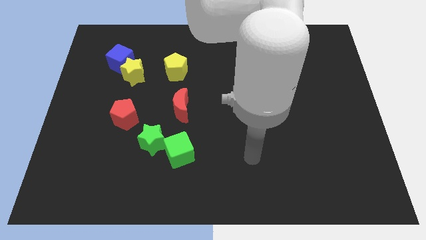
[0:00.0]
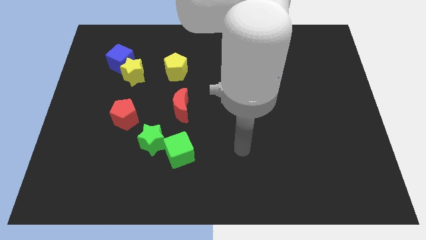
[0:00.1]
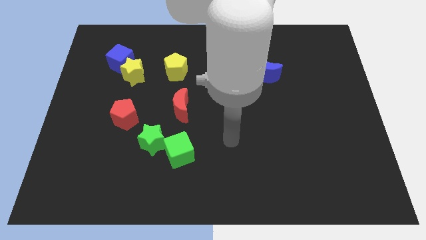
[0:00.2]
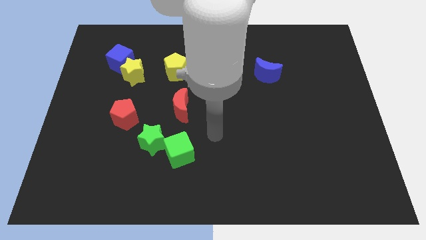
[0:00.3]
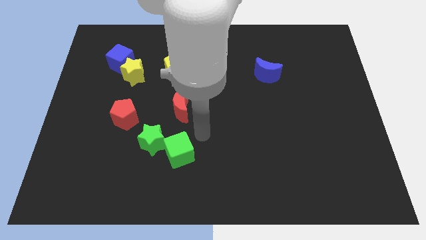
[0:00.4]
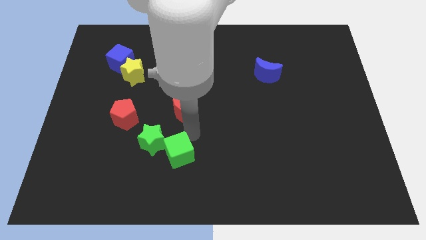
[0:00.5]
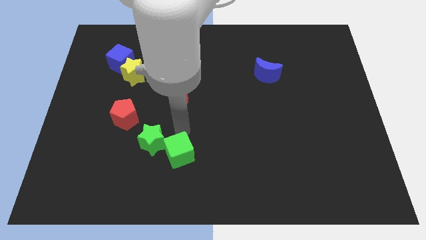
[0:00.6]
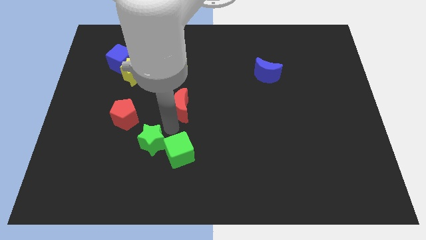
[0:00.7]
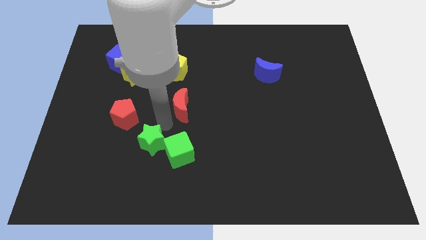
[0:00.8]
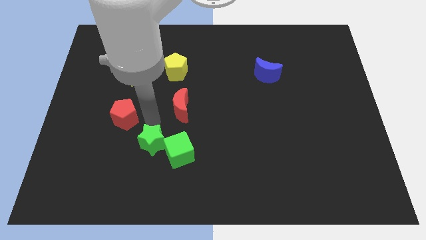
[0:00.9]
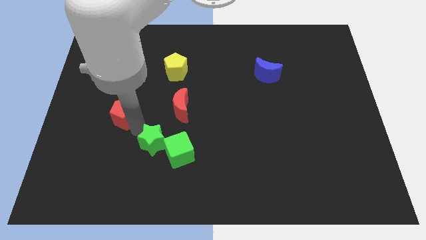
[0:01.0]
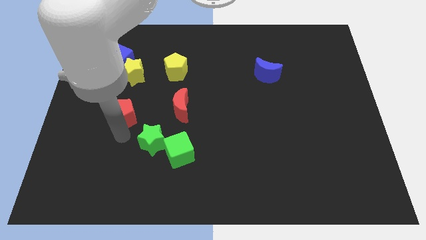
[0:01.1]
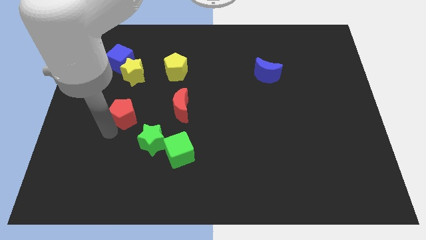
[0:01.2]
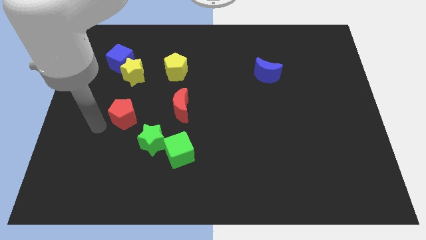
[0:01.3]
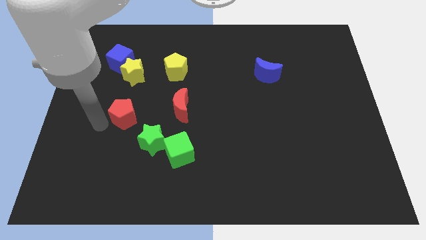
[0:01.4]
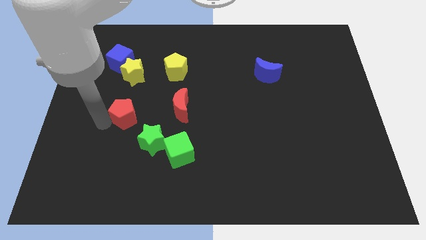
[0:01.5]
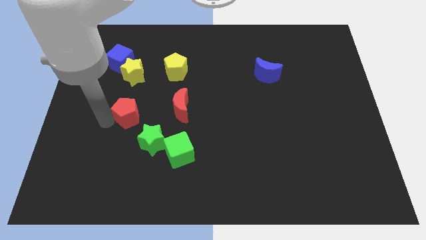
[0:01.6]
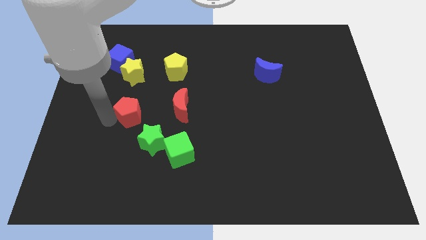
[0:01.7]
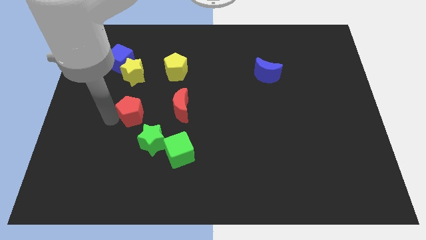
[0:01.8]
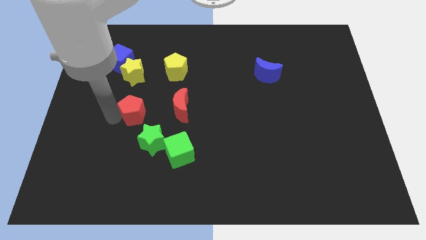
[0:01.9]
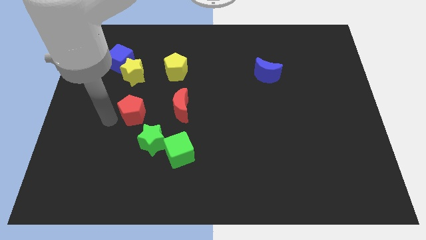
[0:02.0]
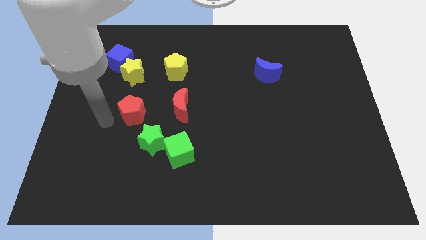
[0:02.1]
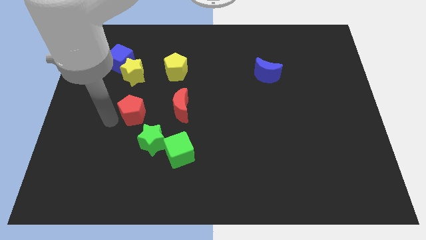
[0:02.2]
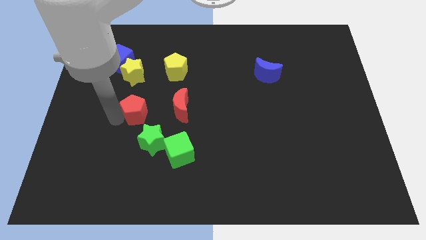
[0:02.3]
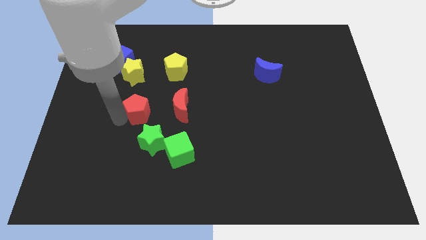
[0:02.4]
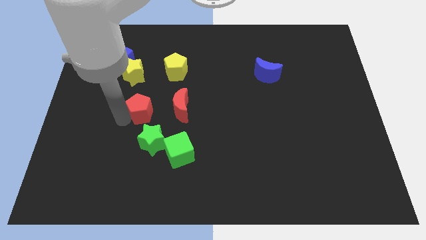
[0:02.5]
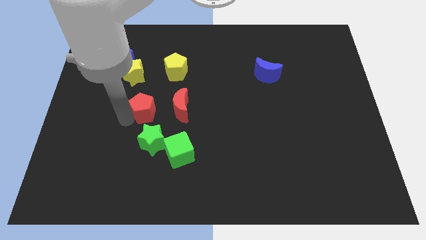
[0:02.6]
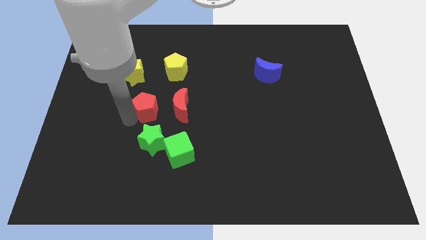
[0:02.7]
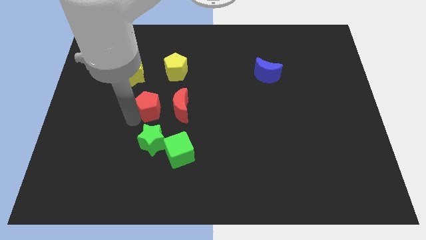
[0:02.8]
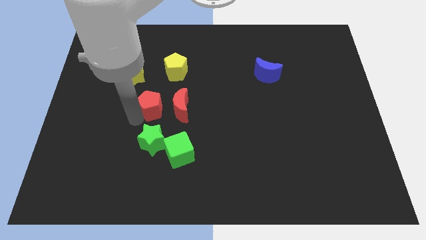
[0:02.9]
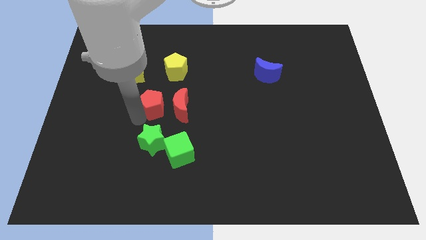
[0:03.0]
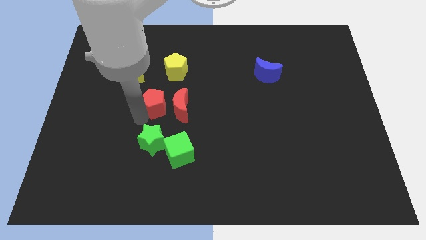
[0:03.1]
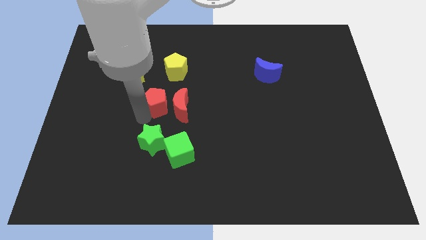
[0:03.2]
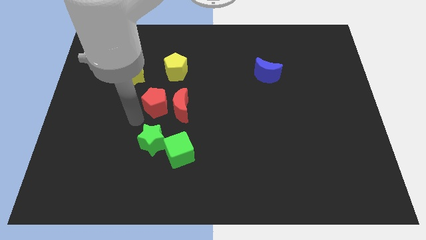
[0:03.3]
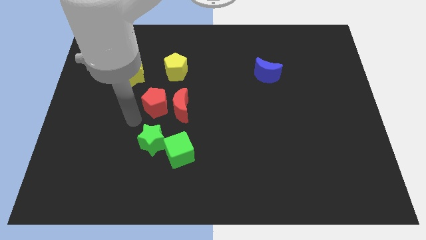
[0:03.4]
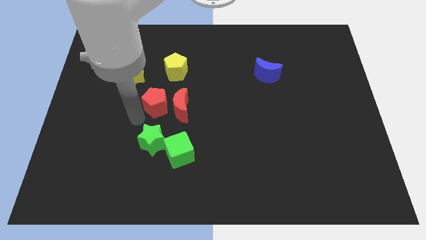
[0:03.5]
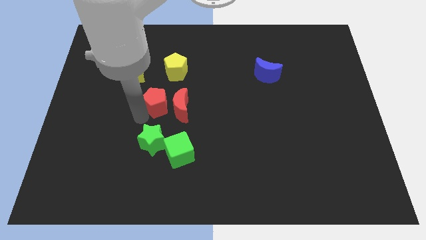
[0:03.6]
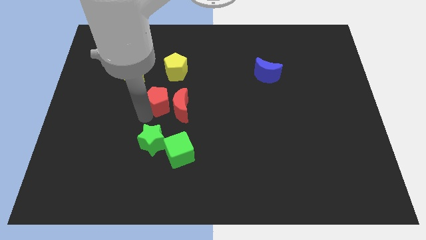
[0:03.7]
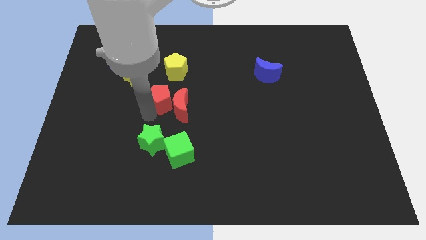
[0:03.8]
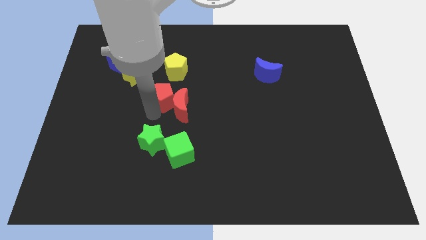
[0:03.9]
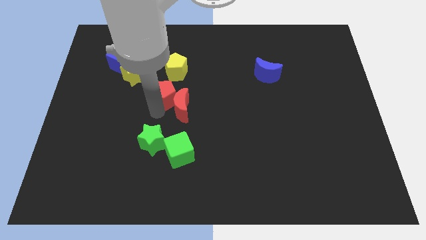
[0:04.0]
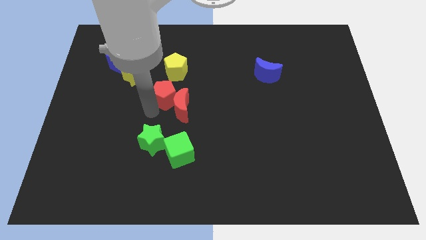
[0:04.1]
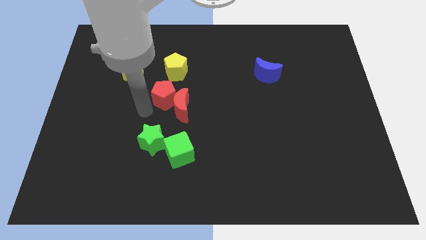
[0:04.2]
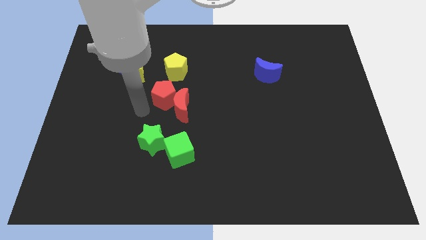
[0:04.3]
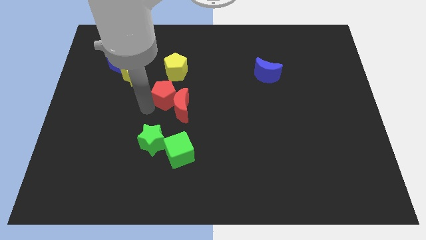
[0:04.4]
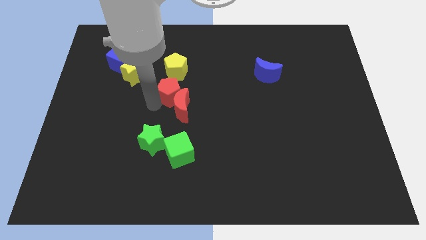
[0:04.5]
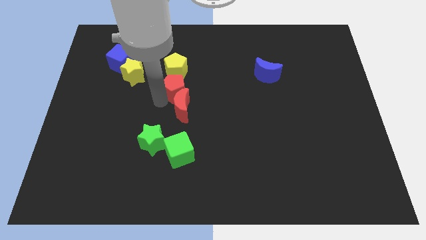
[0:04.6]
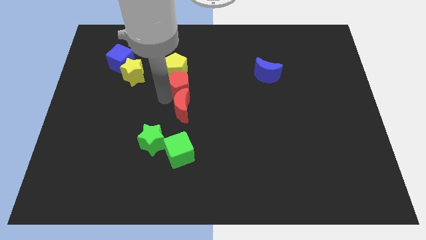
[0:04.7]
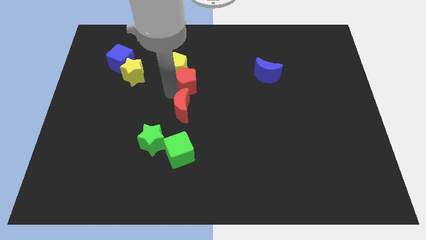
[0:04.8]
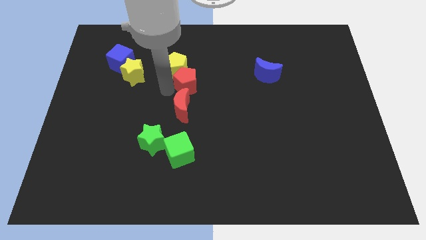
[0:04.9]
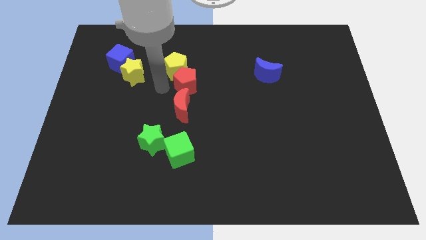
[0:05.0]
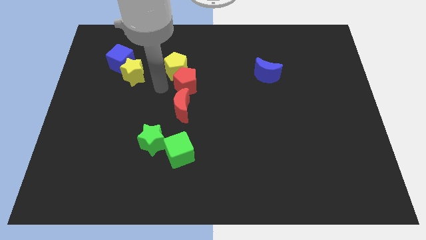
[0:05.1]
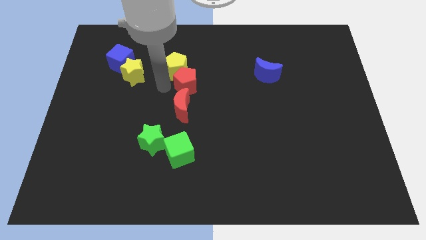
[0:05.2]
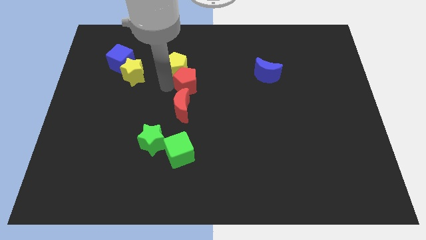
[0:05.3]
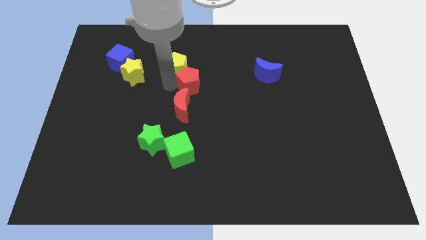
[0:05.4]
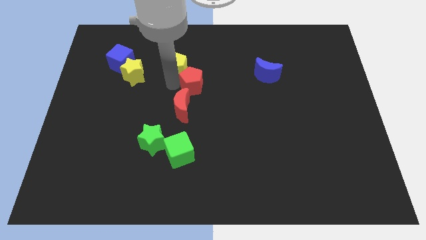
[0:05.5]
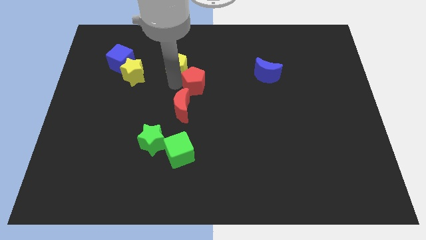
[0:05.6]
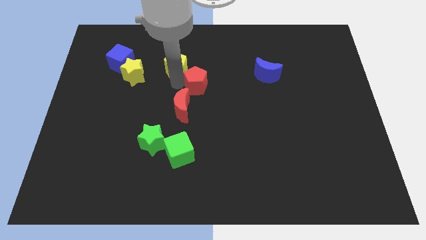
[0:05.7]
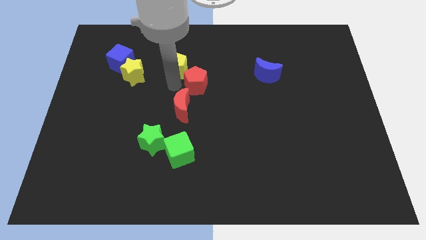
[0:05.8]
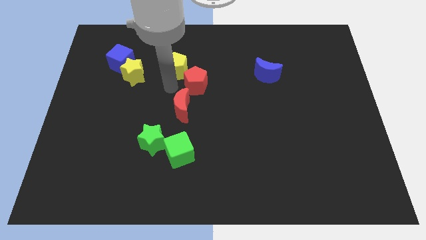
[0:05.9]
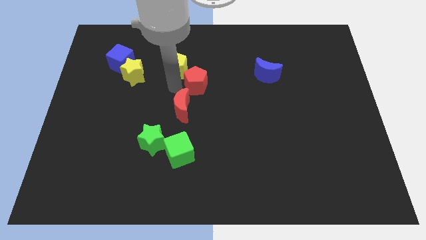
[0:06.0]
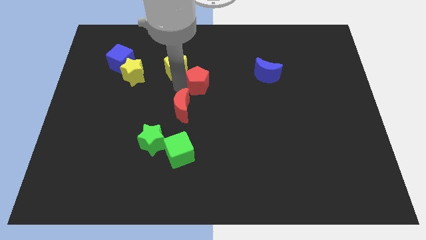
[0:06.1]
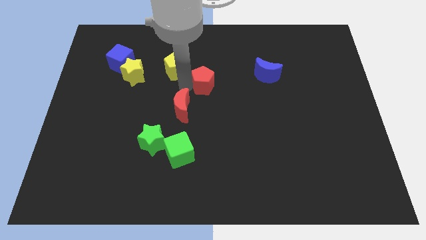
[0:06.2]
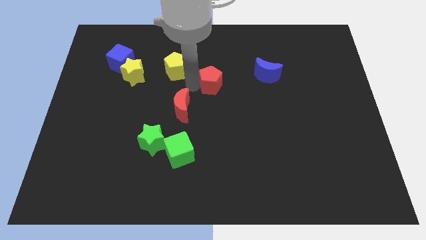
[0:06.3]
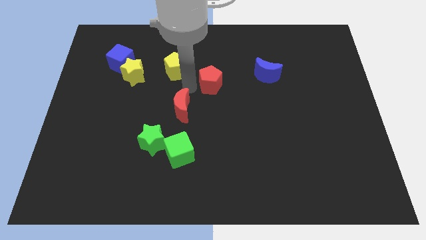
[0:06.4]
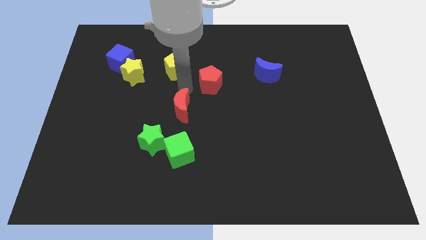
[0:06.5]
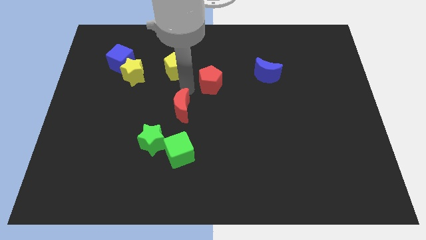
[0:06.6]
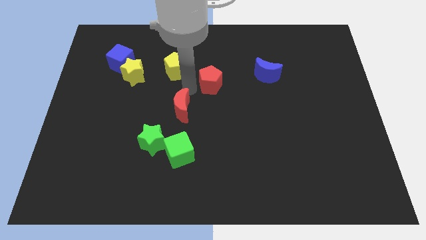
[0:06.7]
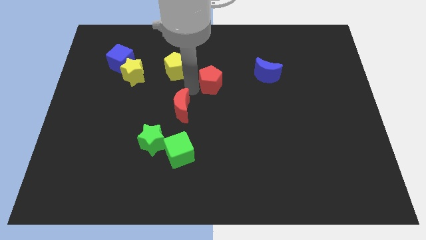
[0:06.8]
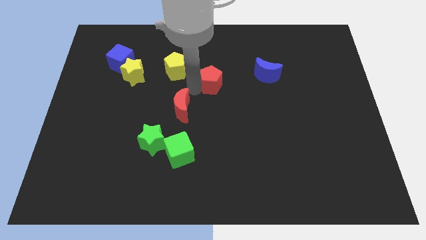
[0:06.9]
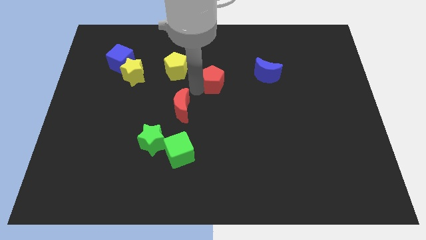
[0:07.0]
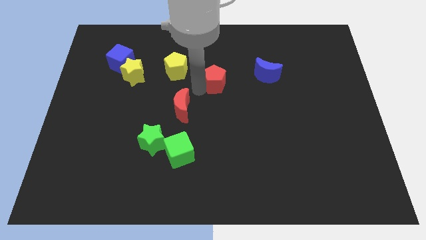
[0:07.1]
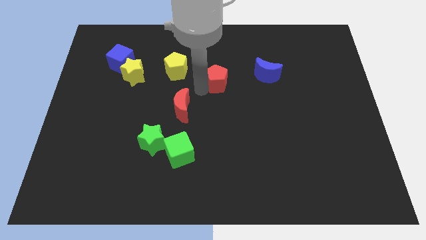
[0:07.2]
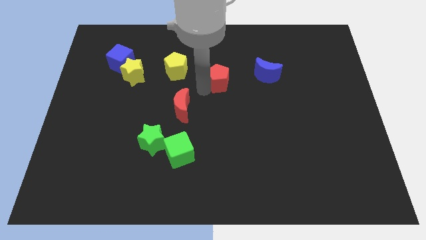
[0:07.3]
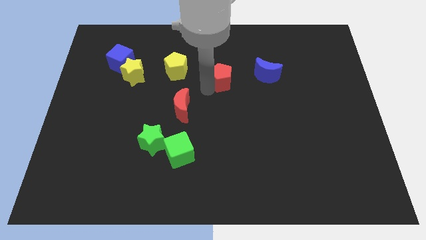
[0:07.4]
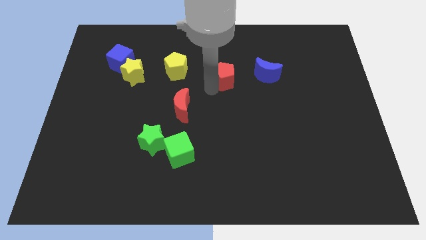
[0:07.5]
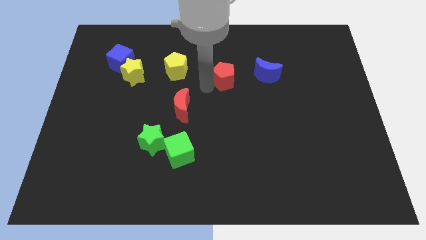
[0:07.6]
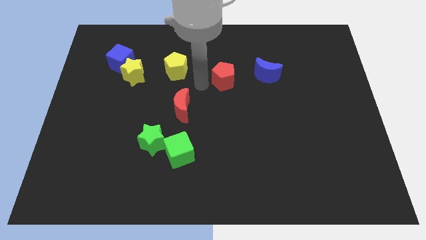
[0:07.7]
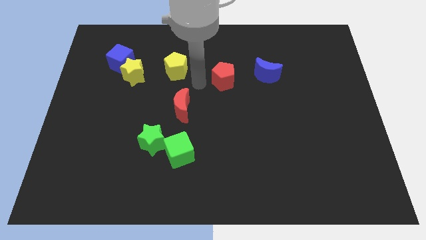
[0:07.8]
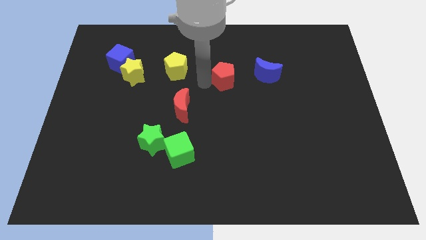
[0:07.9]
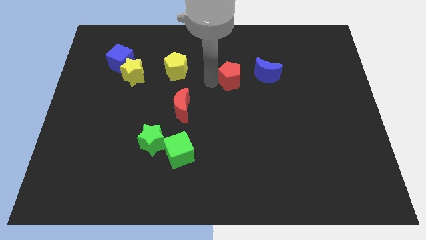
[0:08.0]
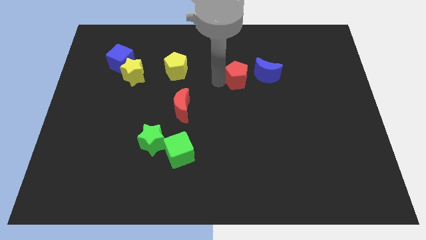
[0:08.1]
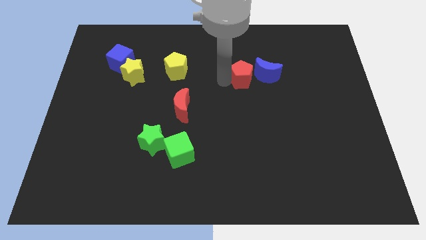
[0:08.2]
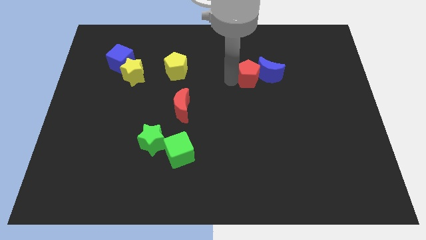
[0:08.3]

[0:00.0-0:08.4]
move the red pentagon close to the blue moon
